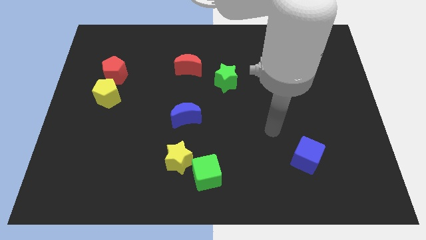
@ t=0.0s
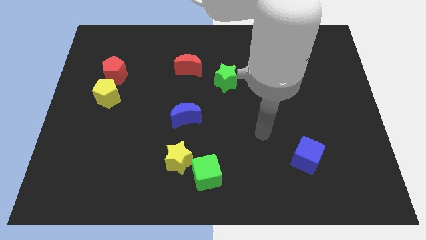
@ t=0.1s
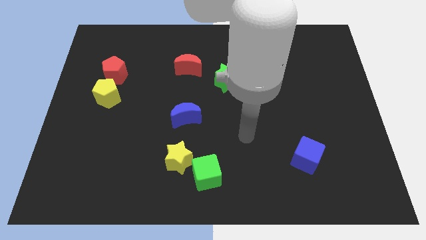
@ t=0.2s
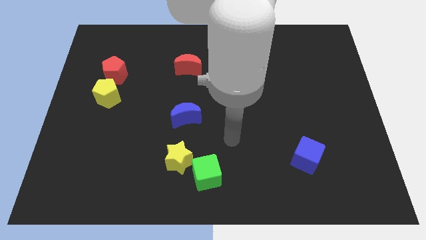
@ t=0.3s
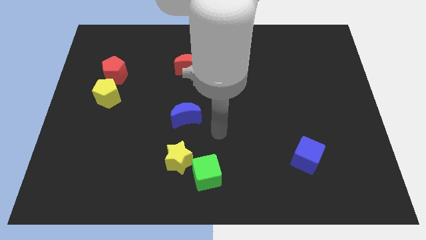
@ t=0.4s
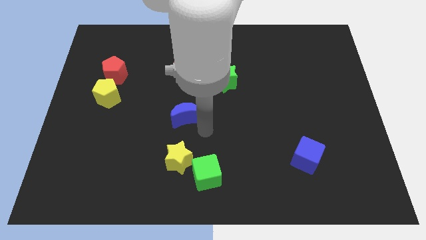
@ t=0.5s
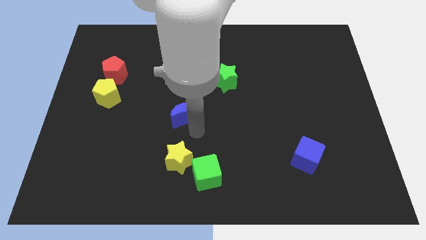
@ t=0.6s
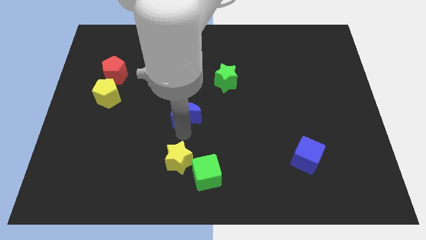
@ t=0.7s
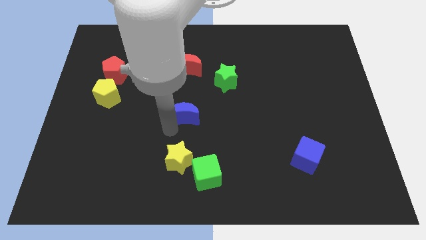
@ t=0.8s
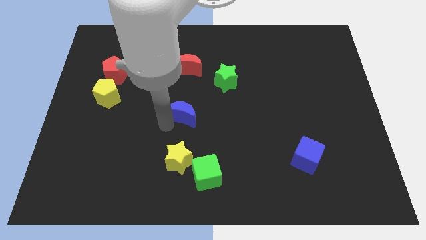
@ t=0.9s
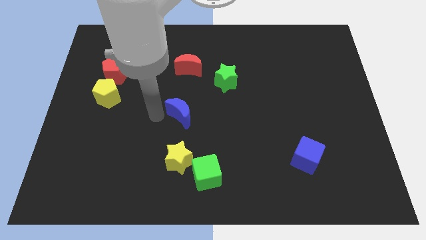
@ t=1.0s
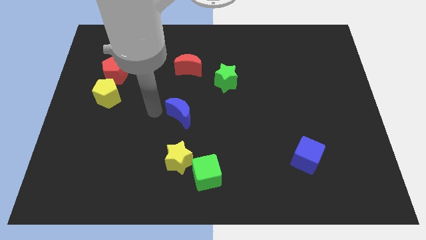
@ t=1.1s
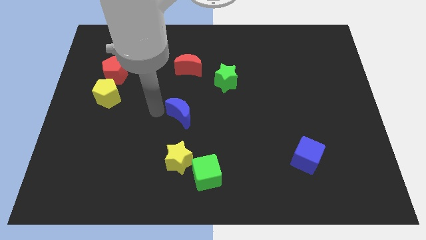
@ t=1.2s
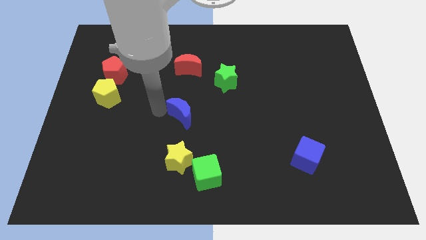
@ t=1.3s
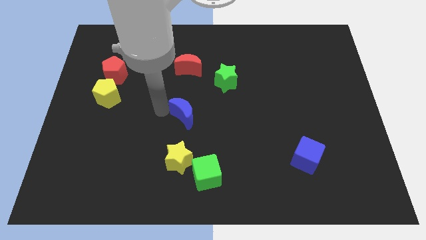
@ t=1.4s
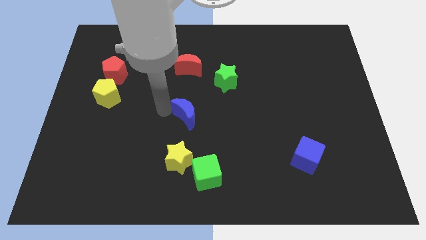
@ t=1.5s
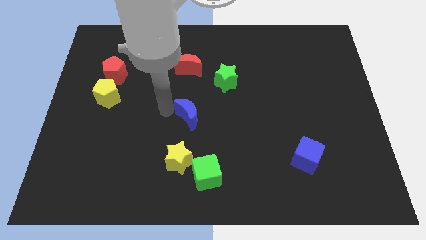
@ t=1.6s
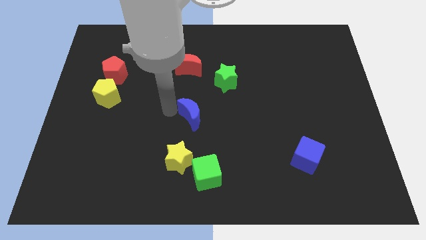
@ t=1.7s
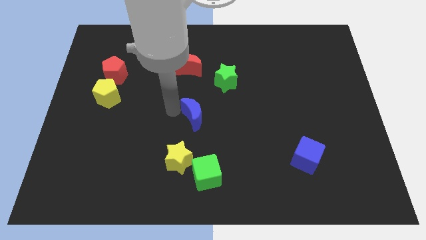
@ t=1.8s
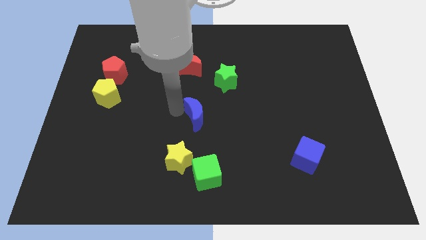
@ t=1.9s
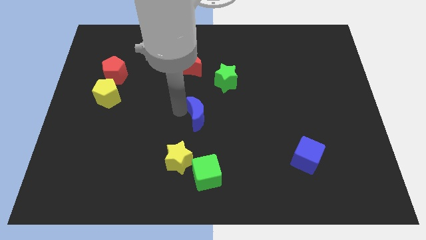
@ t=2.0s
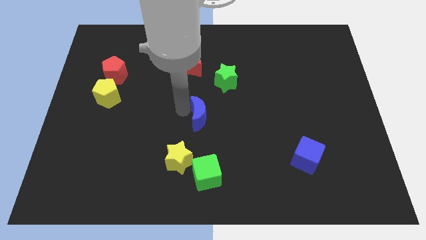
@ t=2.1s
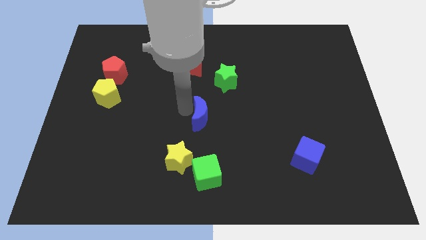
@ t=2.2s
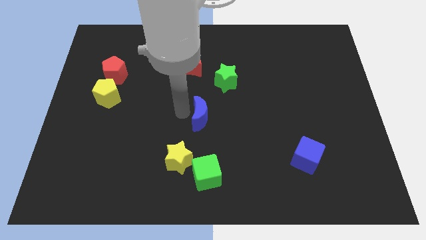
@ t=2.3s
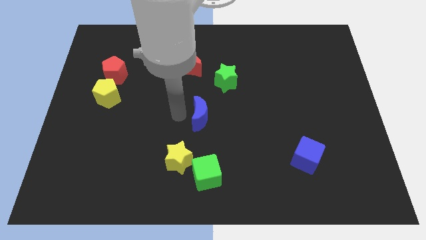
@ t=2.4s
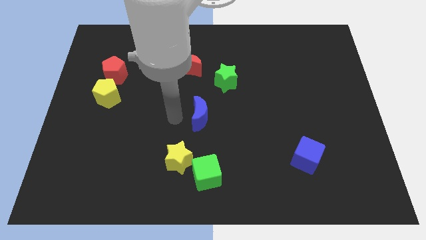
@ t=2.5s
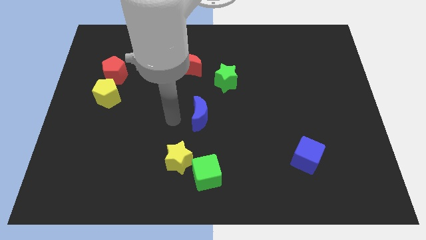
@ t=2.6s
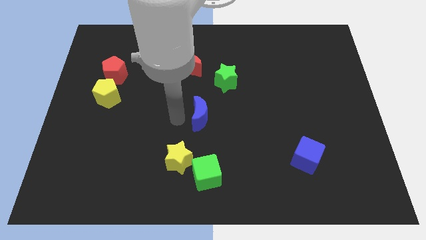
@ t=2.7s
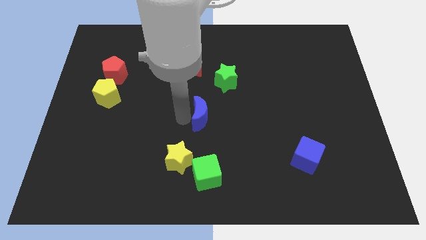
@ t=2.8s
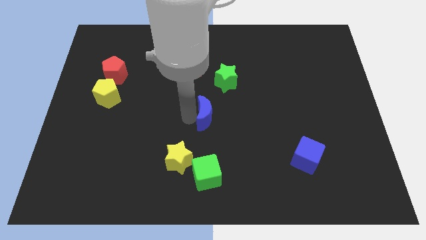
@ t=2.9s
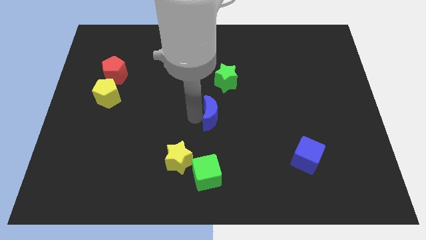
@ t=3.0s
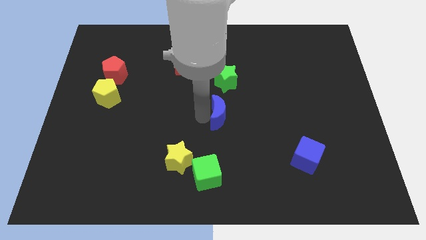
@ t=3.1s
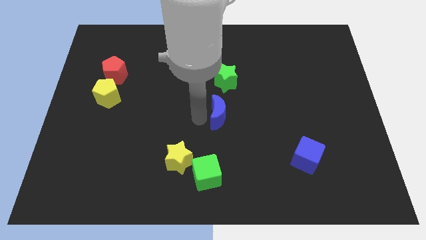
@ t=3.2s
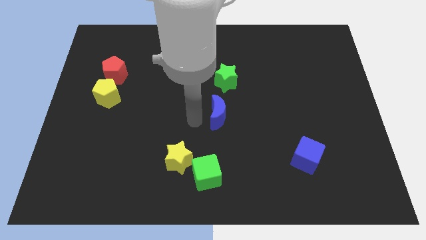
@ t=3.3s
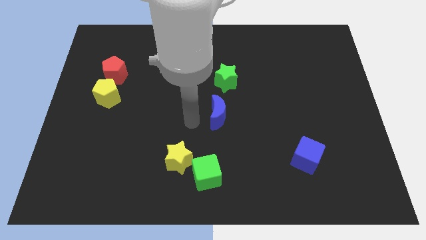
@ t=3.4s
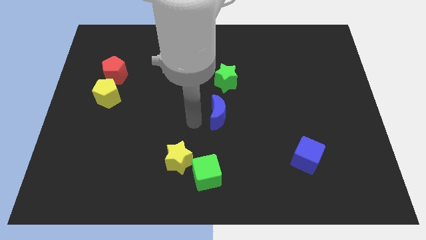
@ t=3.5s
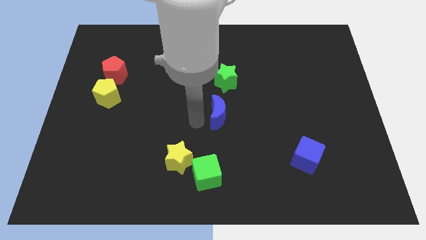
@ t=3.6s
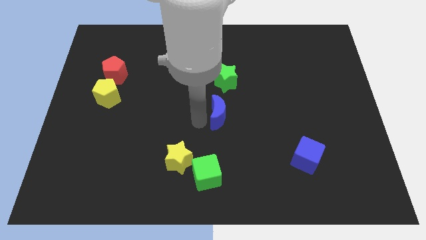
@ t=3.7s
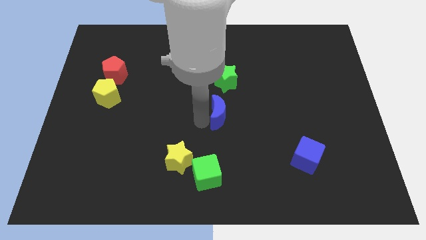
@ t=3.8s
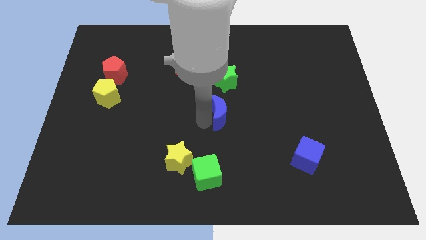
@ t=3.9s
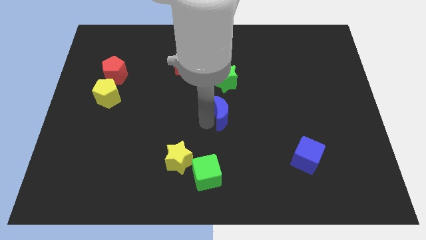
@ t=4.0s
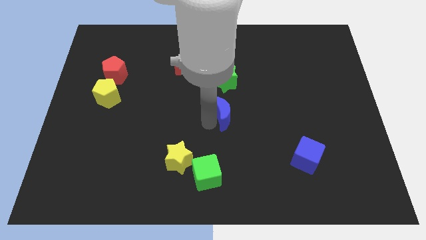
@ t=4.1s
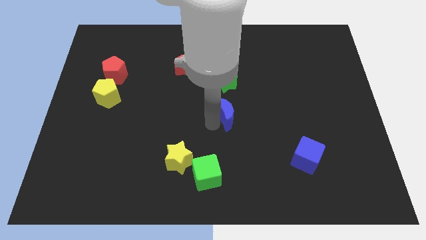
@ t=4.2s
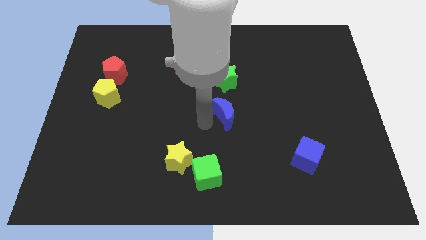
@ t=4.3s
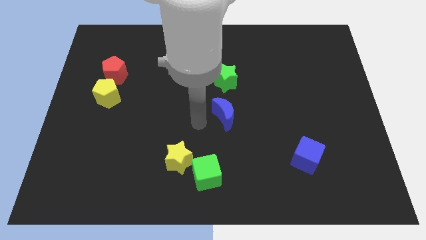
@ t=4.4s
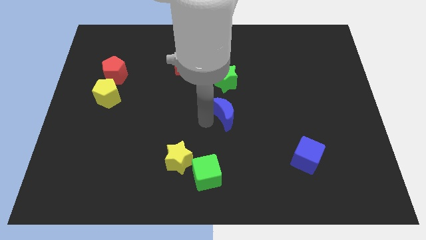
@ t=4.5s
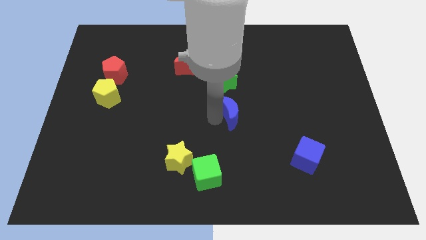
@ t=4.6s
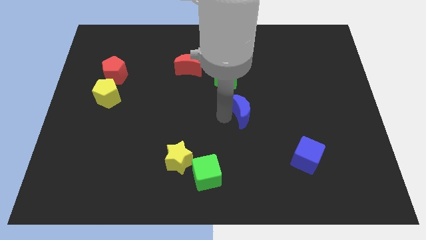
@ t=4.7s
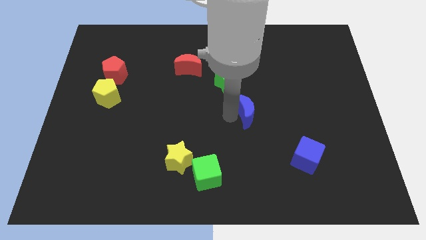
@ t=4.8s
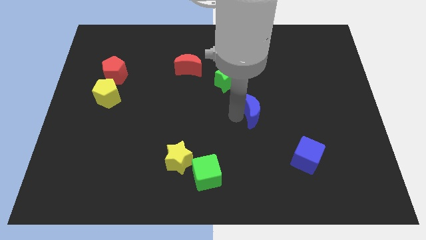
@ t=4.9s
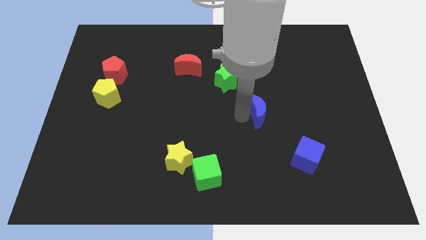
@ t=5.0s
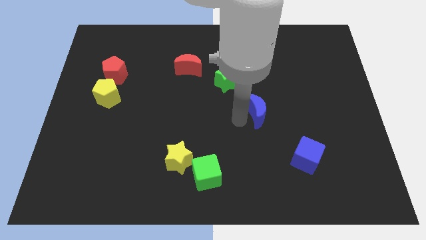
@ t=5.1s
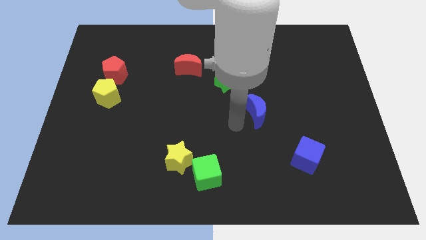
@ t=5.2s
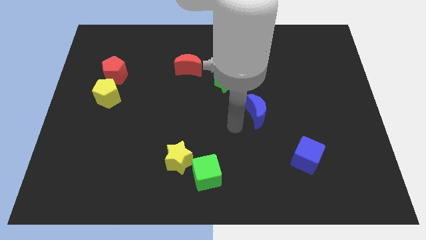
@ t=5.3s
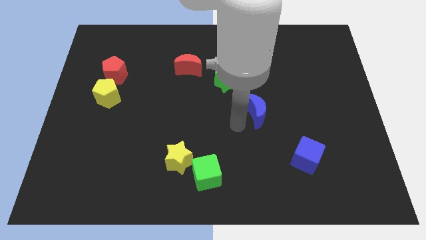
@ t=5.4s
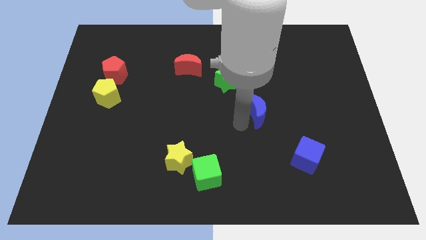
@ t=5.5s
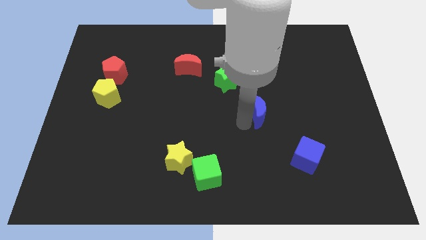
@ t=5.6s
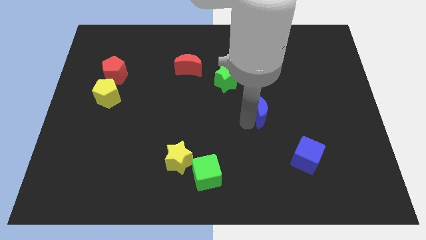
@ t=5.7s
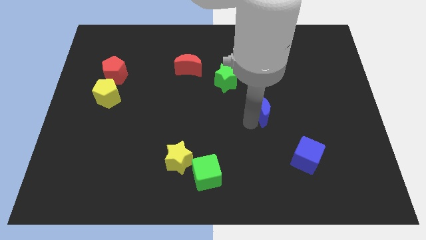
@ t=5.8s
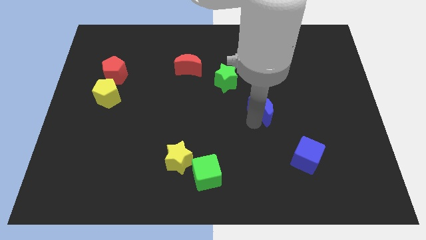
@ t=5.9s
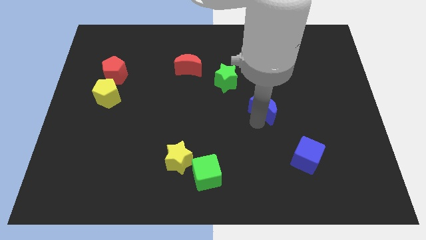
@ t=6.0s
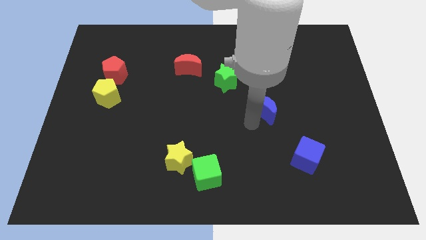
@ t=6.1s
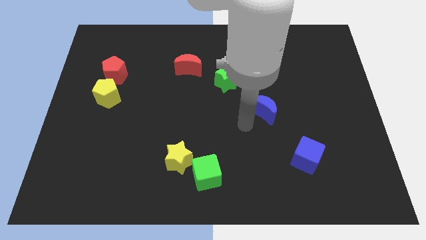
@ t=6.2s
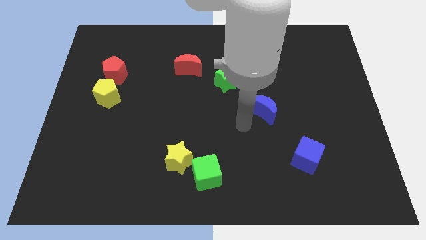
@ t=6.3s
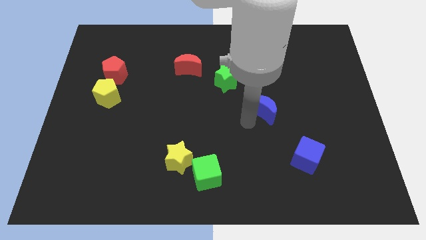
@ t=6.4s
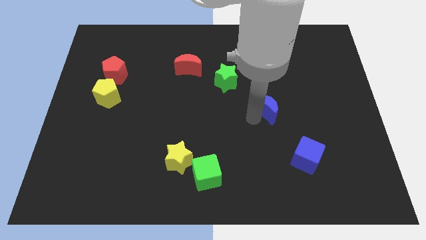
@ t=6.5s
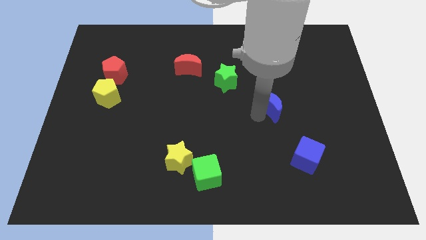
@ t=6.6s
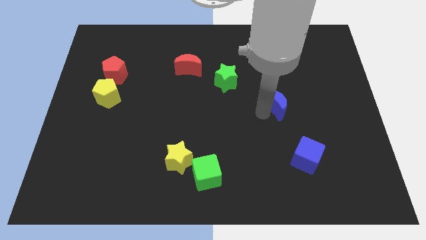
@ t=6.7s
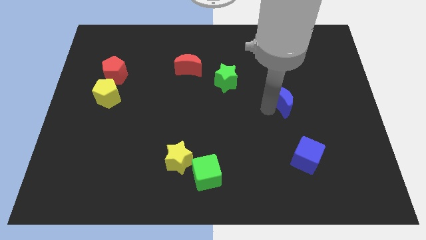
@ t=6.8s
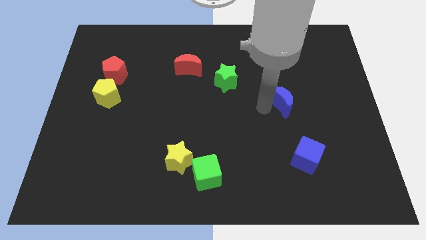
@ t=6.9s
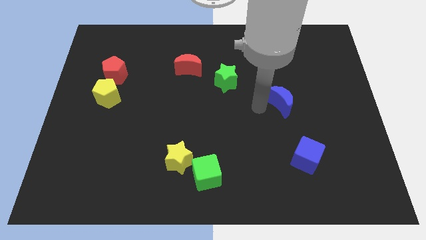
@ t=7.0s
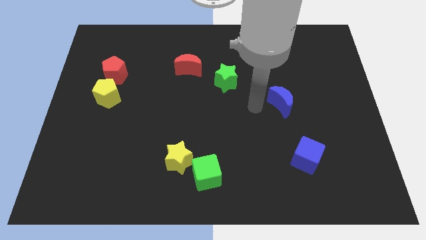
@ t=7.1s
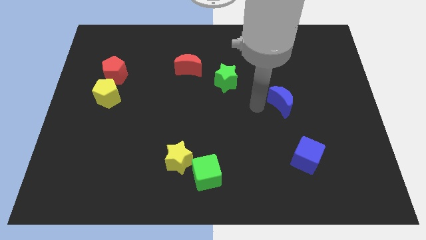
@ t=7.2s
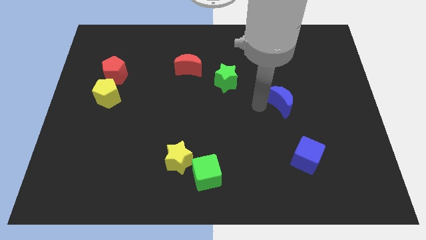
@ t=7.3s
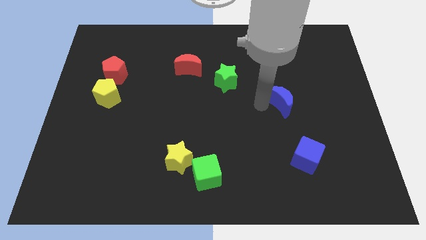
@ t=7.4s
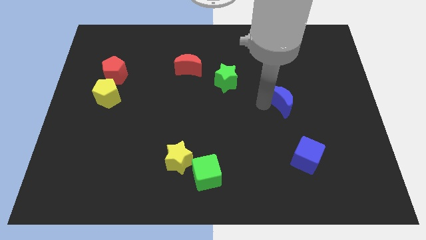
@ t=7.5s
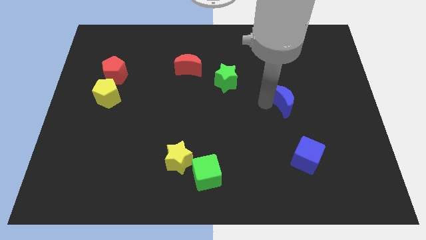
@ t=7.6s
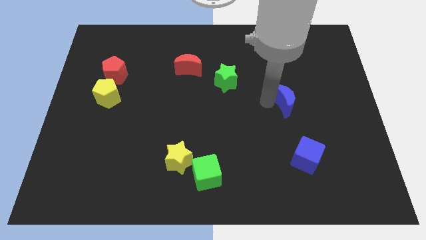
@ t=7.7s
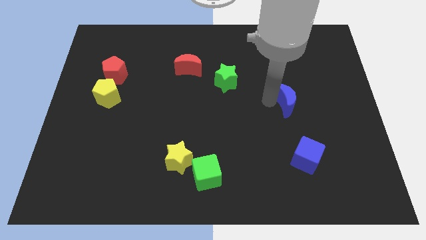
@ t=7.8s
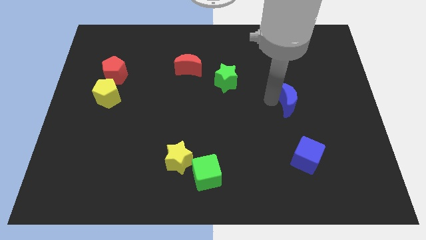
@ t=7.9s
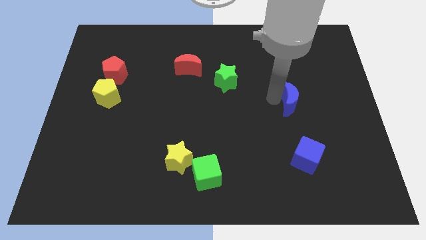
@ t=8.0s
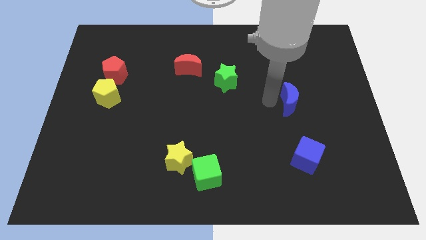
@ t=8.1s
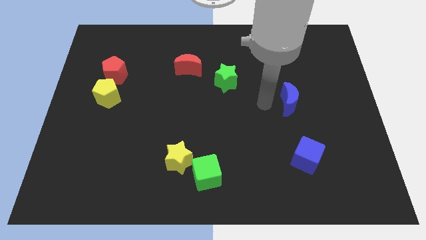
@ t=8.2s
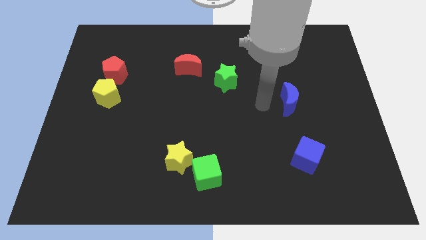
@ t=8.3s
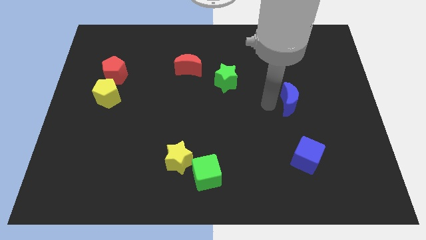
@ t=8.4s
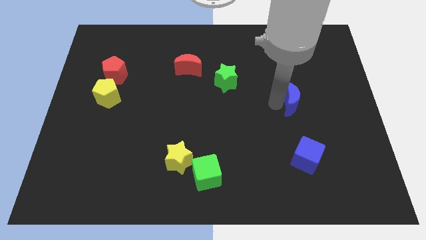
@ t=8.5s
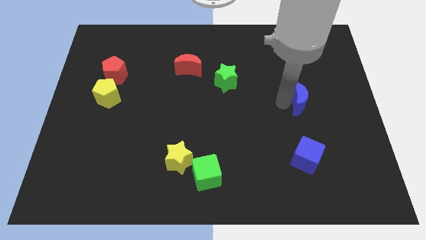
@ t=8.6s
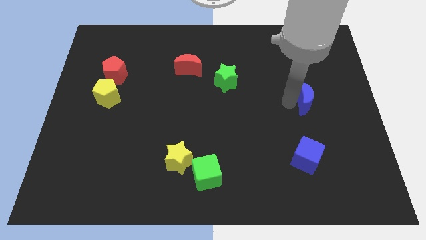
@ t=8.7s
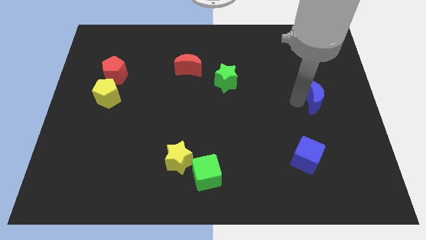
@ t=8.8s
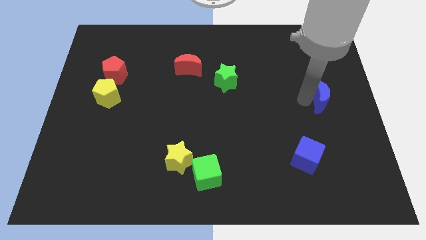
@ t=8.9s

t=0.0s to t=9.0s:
move the blue moon to the center right
